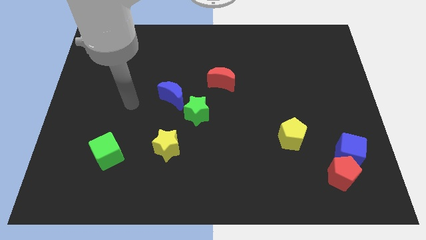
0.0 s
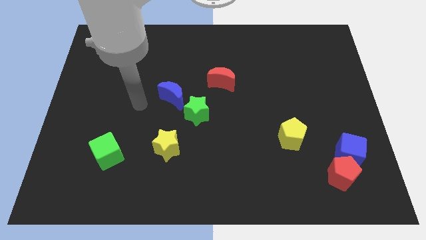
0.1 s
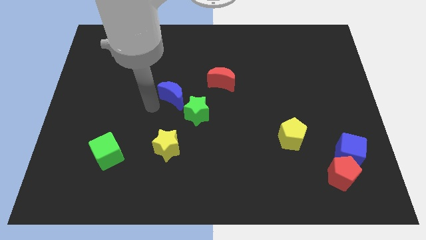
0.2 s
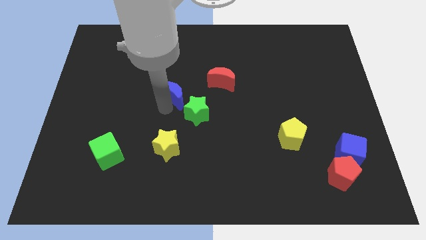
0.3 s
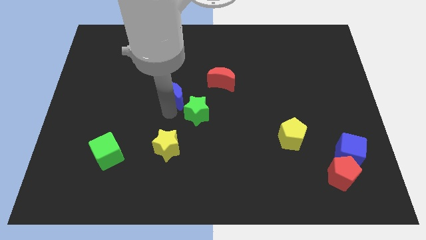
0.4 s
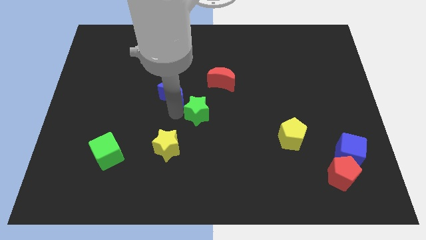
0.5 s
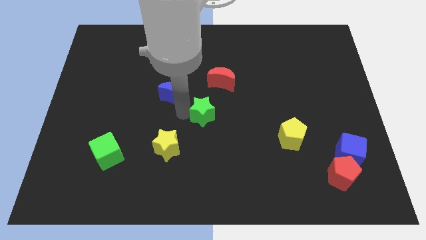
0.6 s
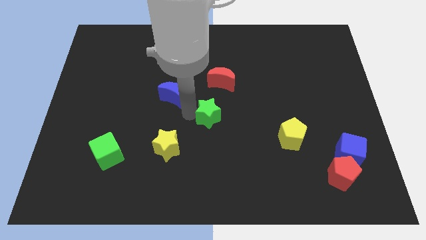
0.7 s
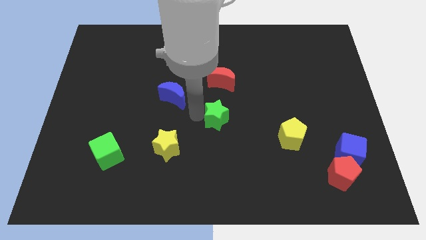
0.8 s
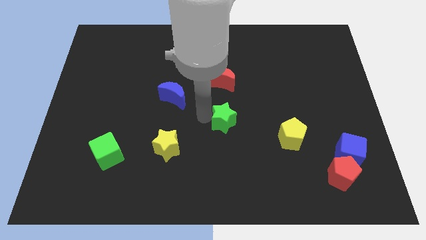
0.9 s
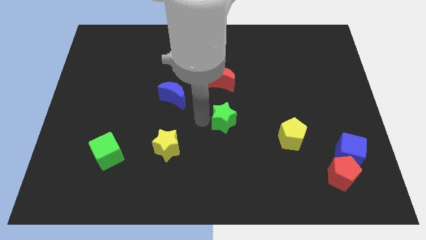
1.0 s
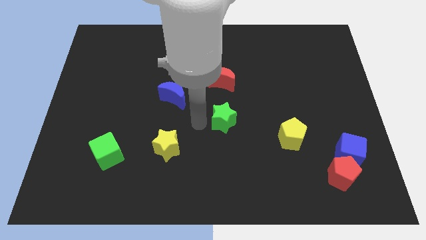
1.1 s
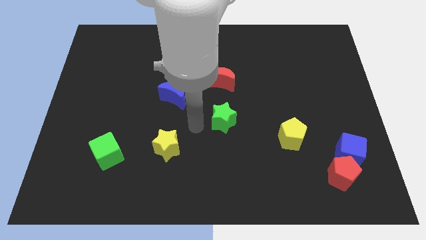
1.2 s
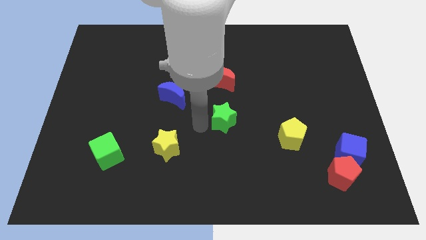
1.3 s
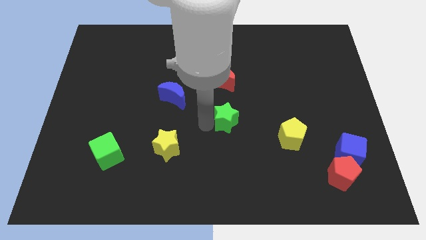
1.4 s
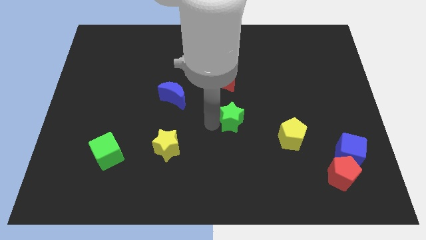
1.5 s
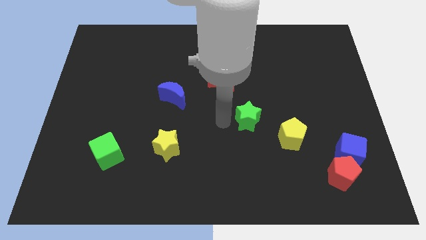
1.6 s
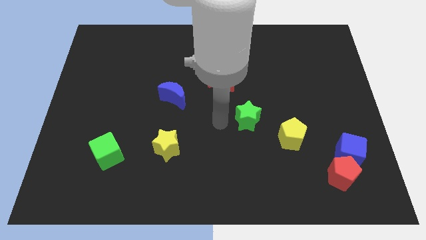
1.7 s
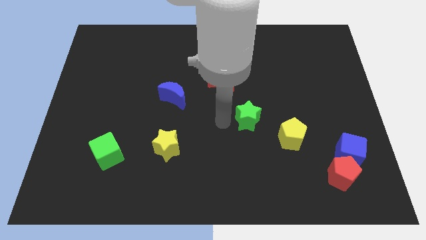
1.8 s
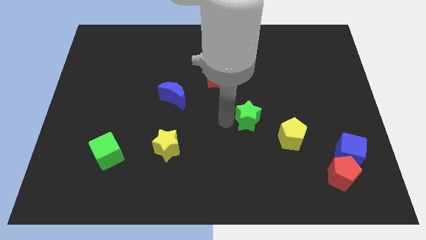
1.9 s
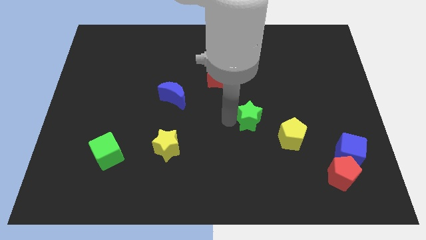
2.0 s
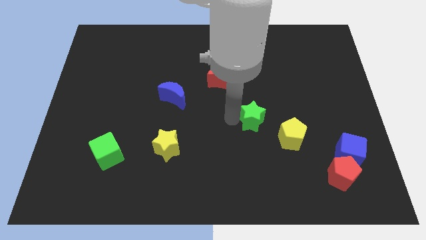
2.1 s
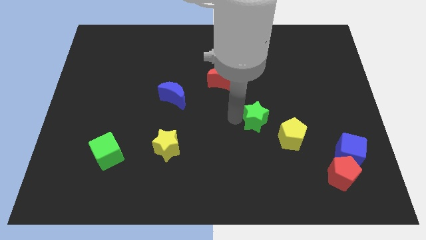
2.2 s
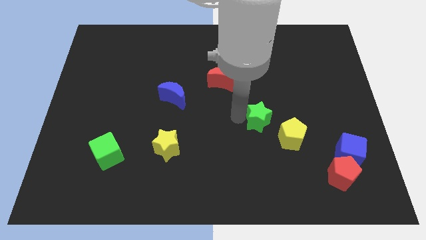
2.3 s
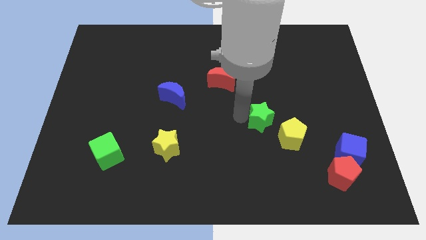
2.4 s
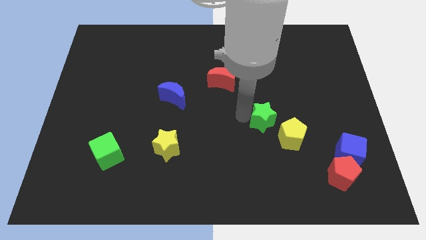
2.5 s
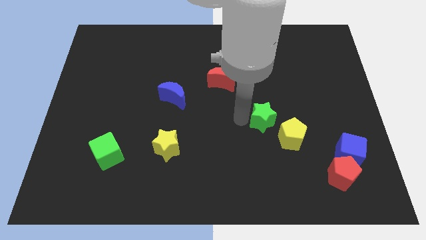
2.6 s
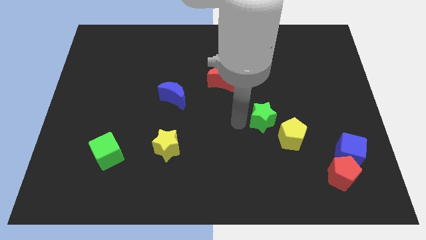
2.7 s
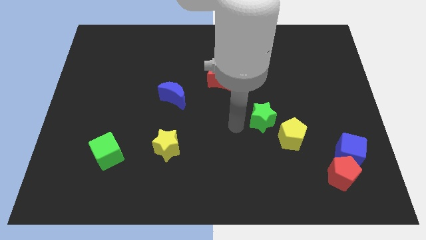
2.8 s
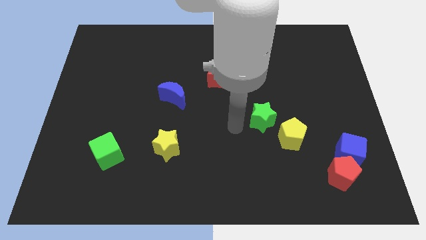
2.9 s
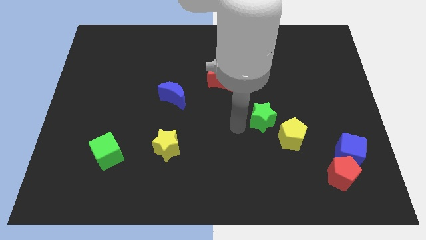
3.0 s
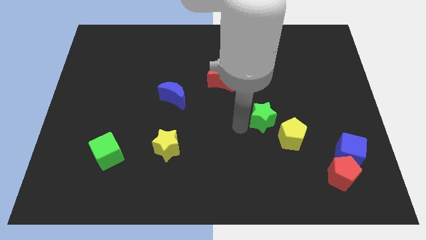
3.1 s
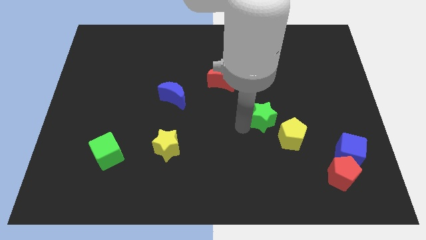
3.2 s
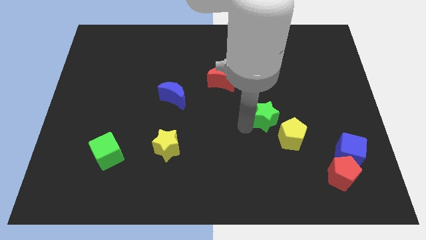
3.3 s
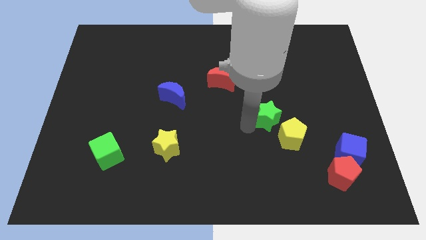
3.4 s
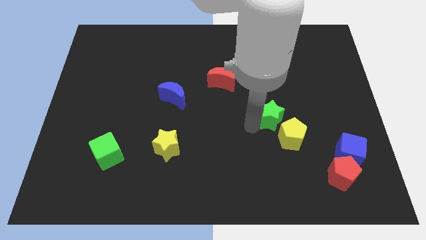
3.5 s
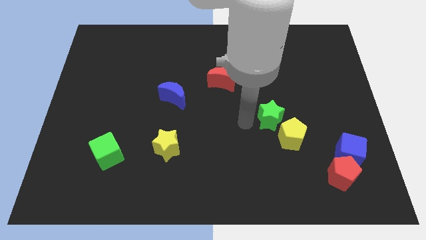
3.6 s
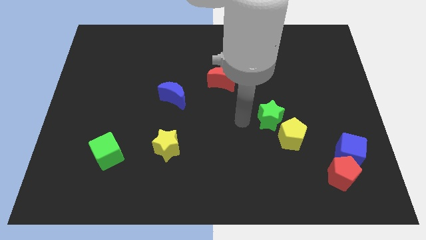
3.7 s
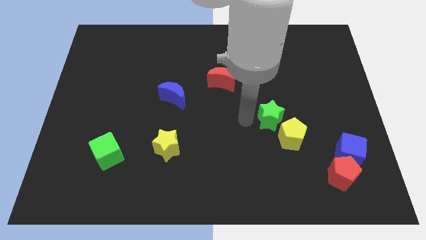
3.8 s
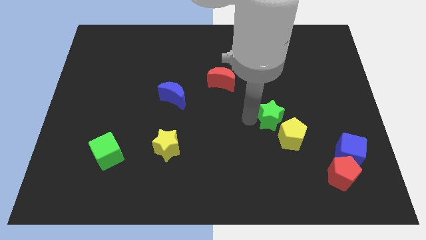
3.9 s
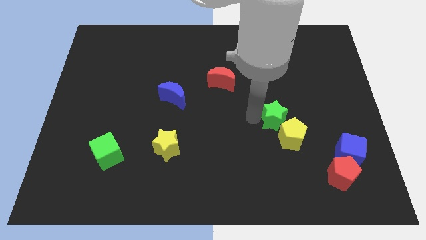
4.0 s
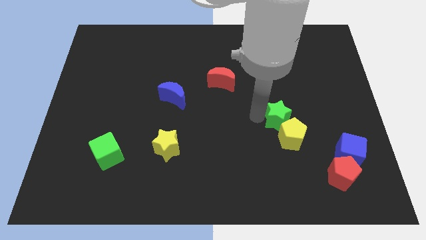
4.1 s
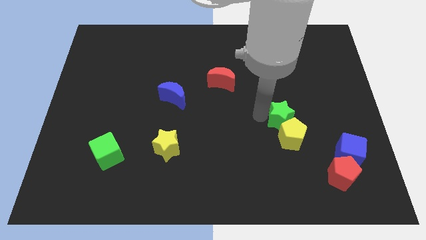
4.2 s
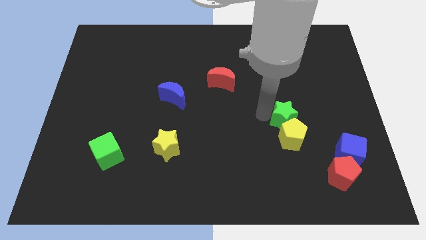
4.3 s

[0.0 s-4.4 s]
push the green star right

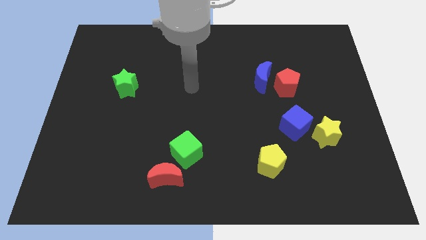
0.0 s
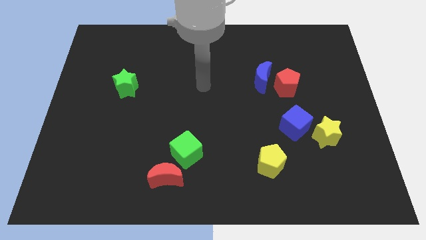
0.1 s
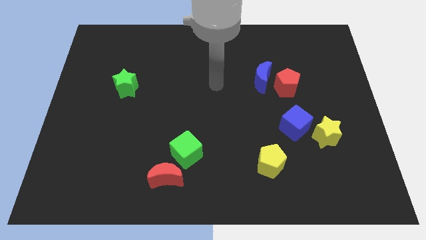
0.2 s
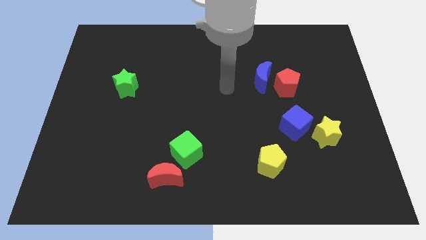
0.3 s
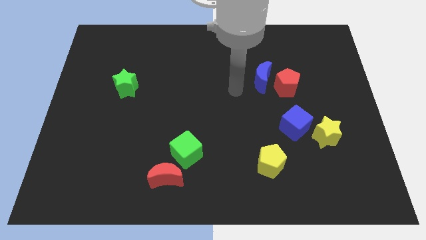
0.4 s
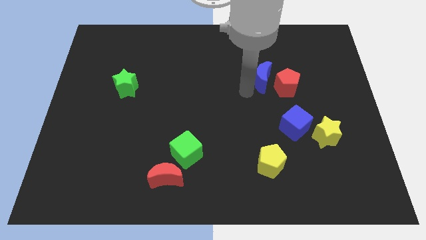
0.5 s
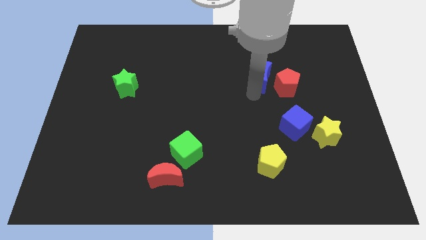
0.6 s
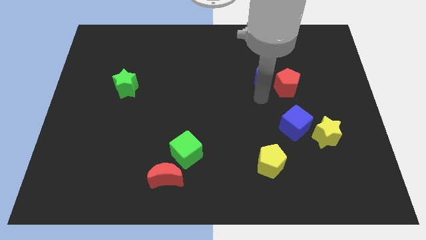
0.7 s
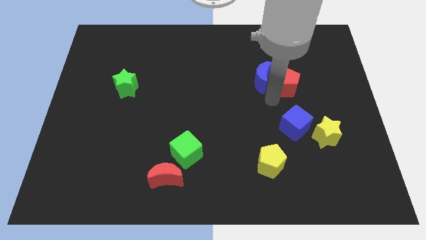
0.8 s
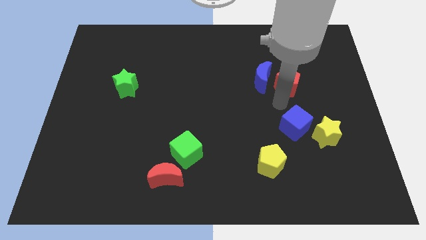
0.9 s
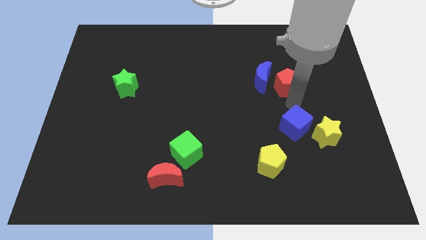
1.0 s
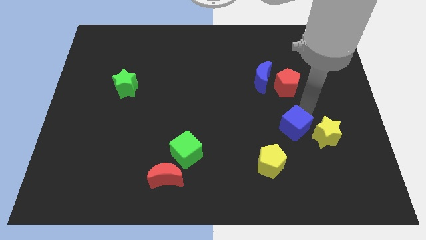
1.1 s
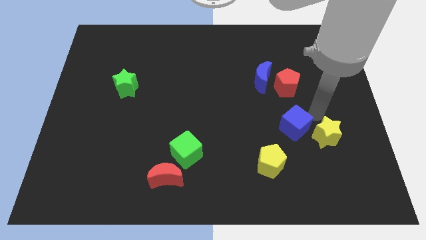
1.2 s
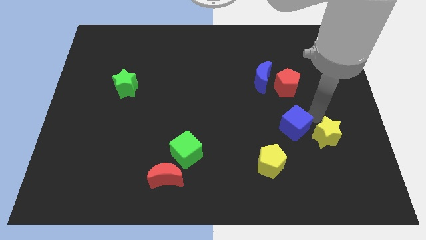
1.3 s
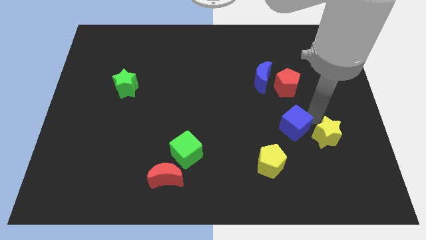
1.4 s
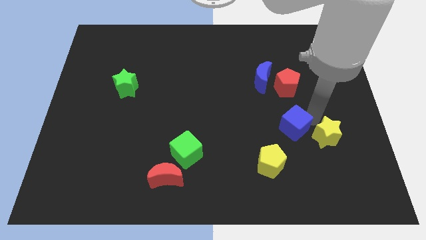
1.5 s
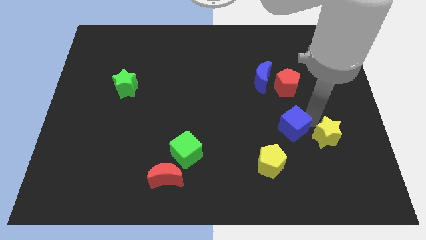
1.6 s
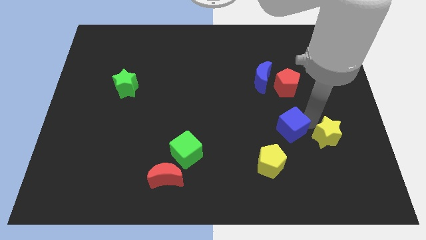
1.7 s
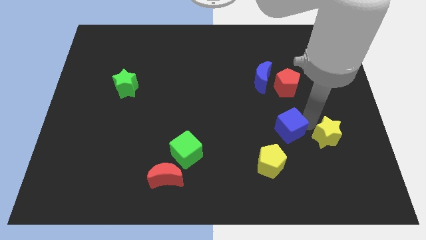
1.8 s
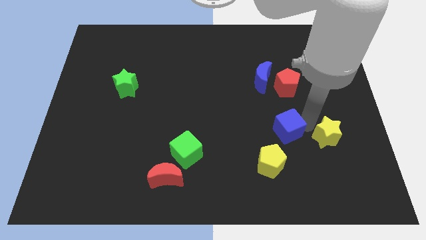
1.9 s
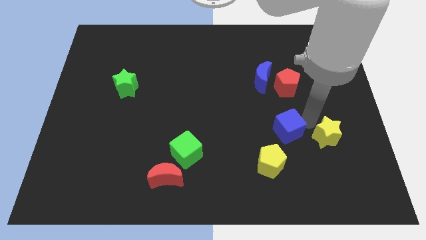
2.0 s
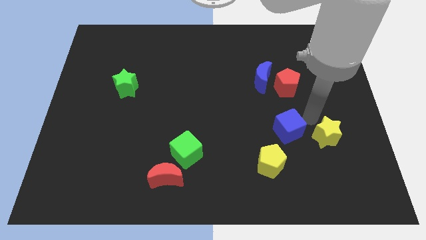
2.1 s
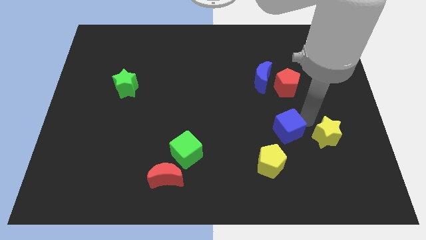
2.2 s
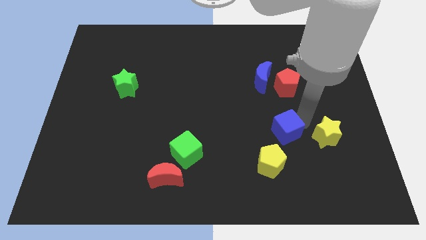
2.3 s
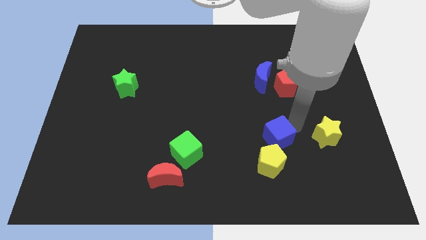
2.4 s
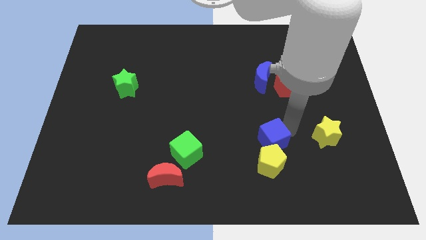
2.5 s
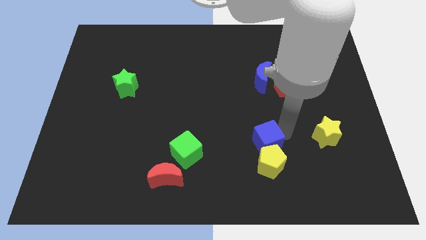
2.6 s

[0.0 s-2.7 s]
slide the blue cube diagonally down and to the left a little bit

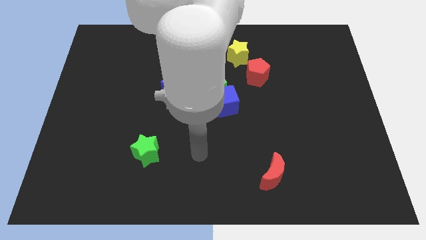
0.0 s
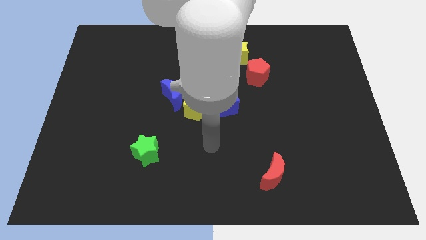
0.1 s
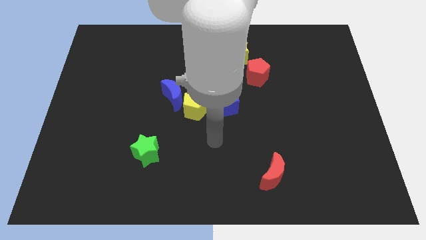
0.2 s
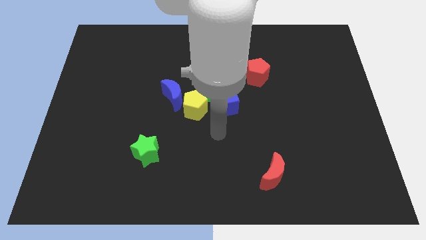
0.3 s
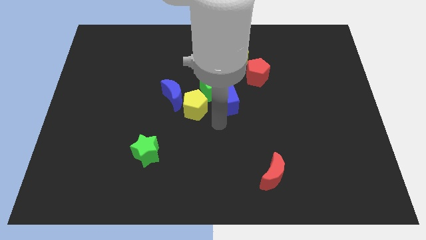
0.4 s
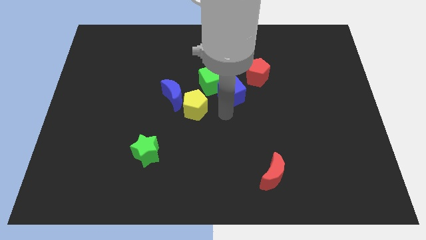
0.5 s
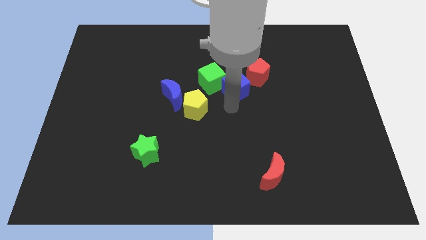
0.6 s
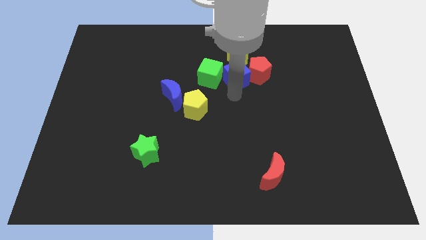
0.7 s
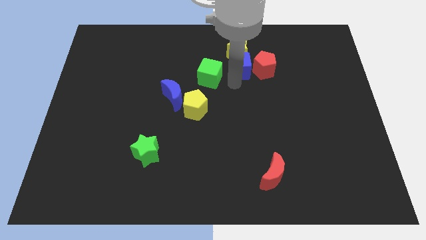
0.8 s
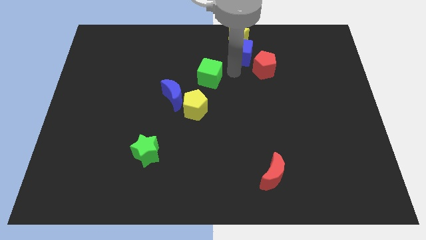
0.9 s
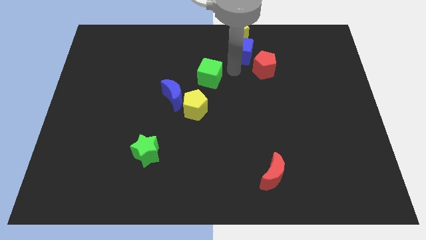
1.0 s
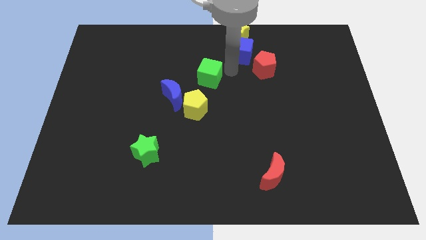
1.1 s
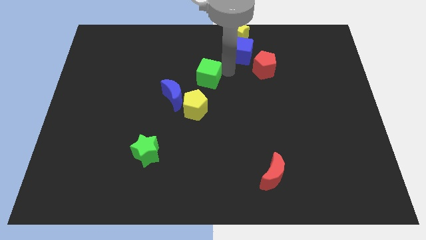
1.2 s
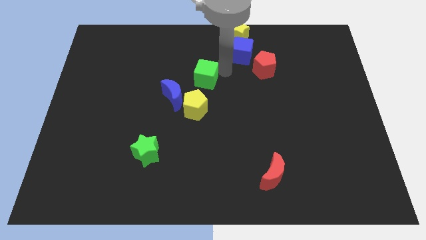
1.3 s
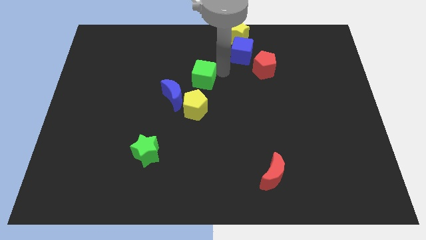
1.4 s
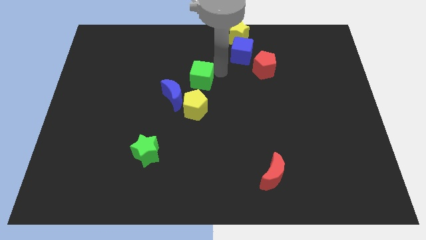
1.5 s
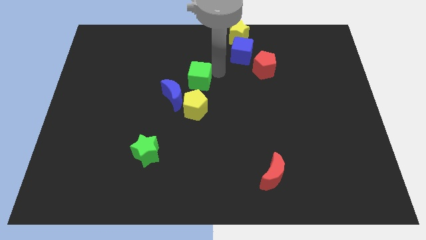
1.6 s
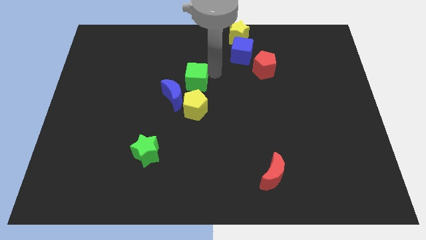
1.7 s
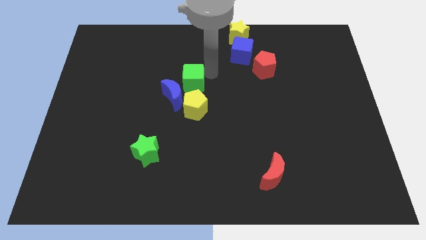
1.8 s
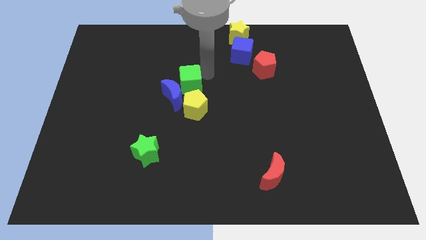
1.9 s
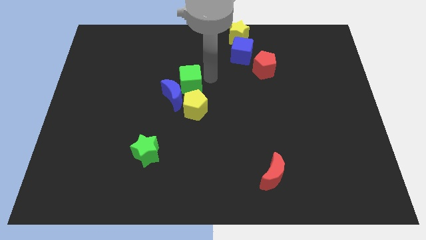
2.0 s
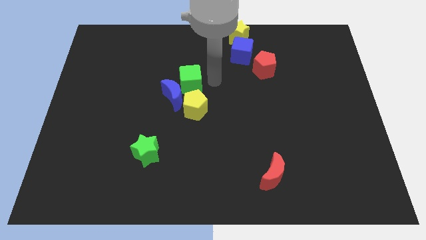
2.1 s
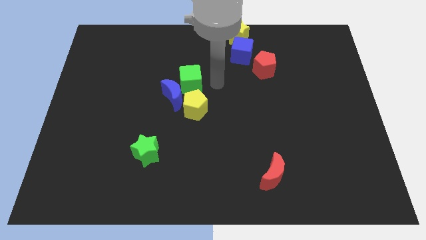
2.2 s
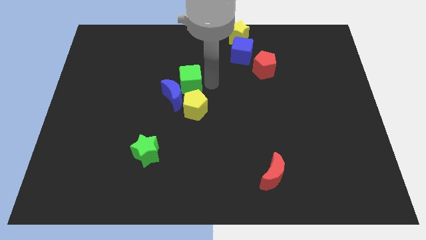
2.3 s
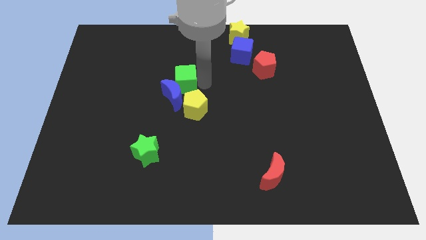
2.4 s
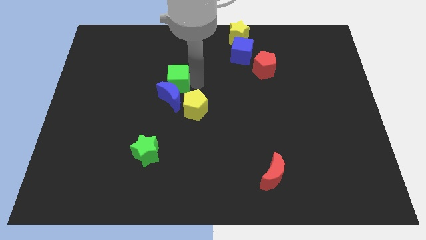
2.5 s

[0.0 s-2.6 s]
slide the green cube left somewhat
